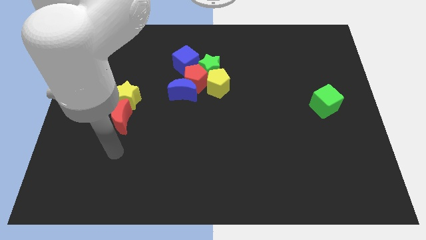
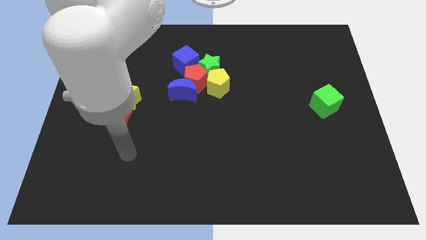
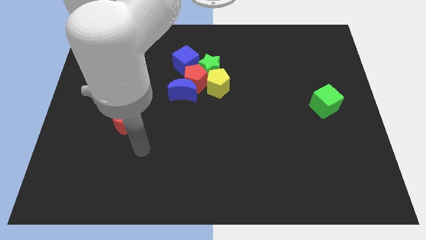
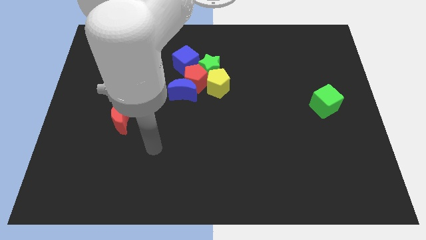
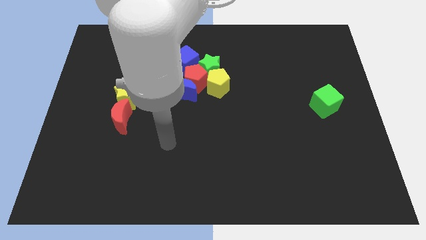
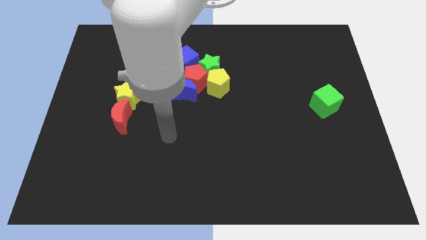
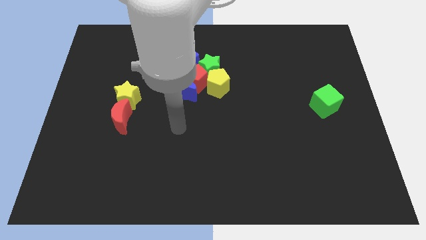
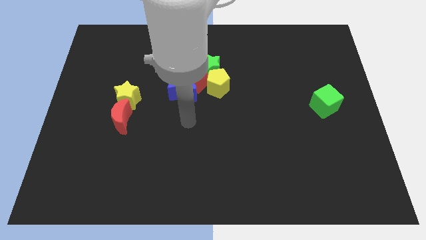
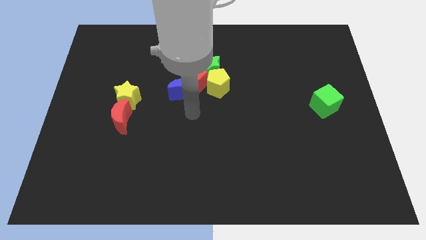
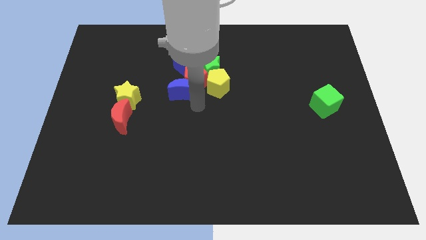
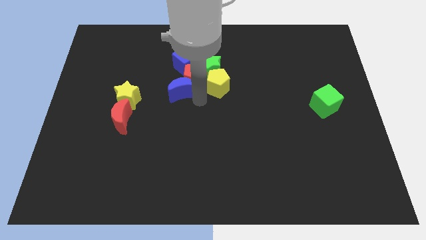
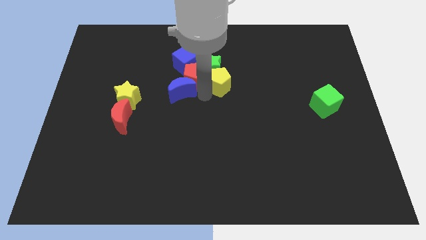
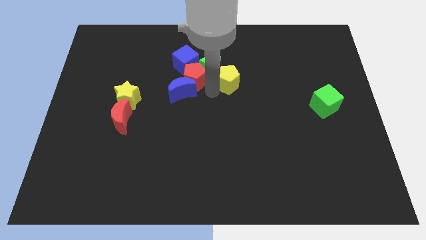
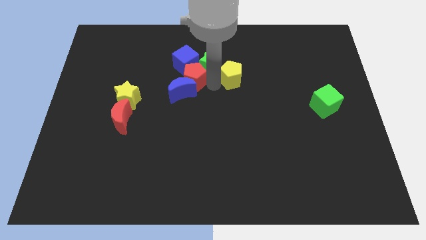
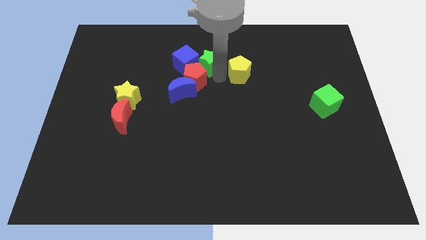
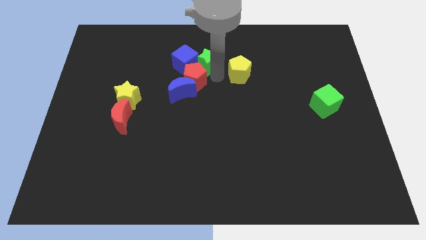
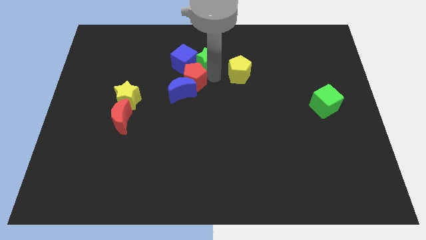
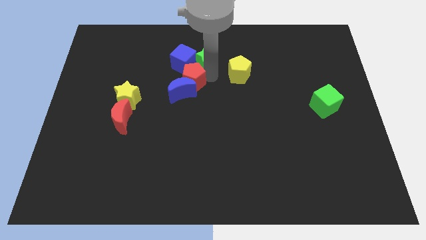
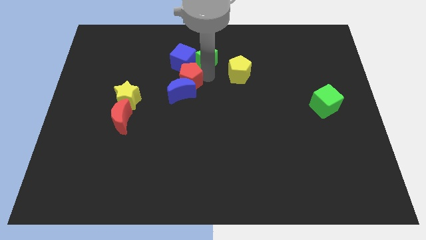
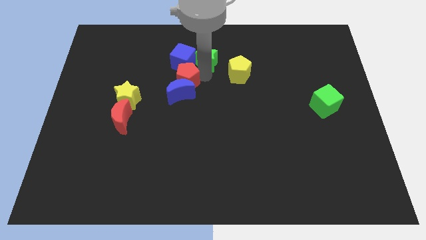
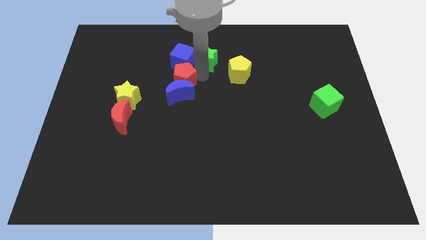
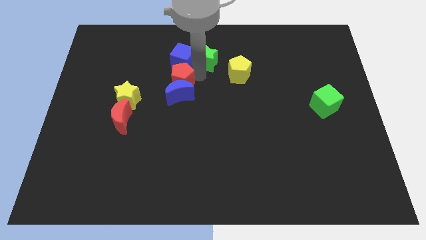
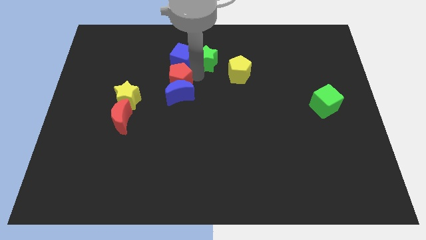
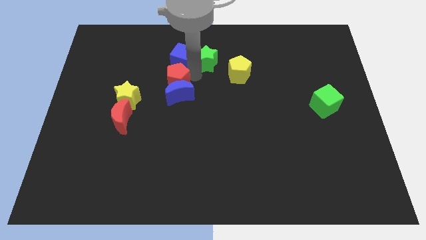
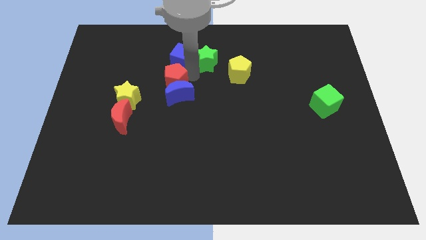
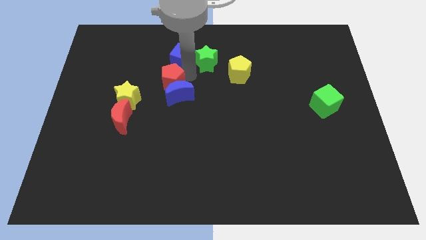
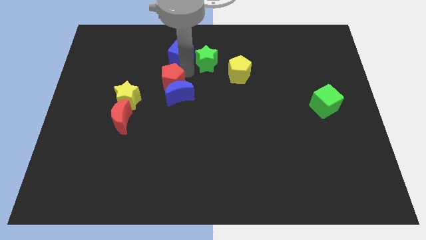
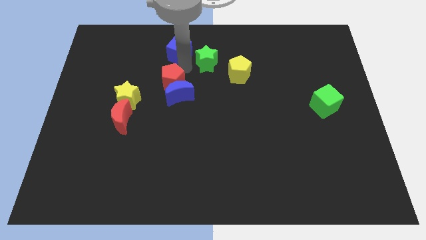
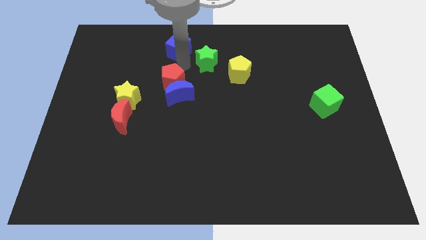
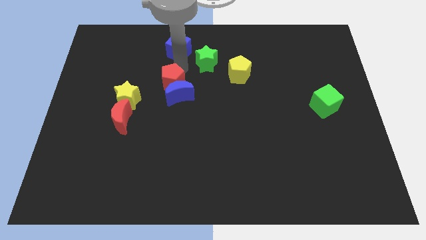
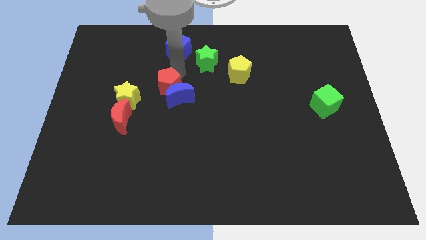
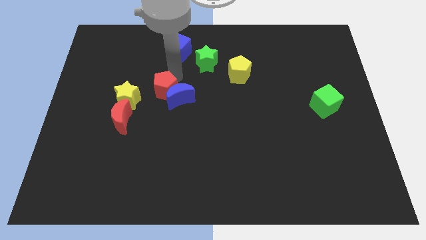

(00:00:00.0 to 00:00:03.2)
move the red pentagon away from the group of blocks

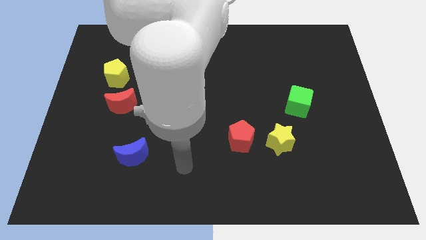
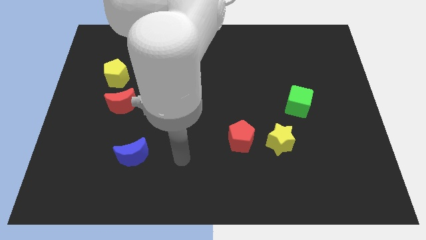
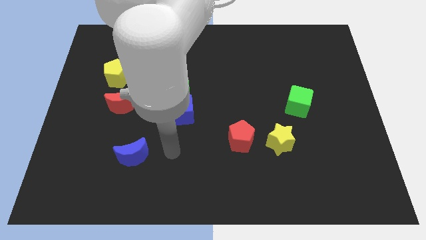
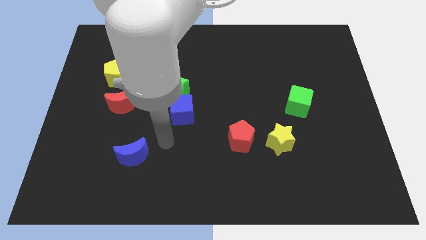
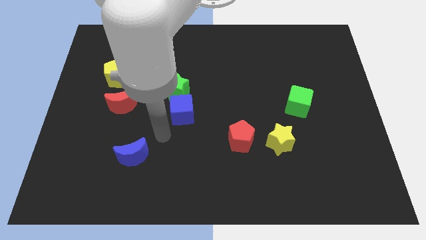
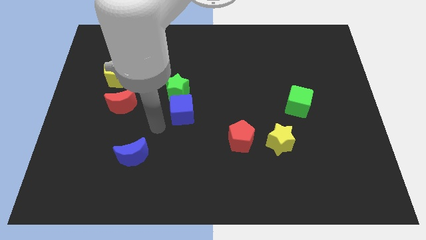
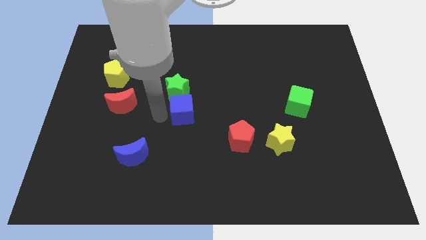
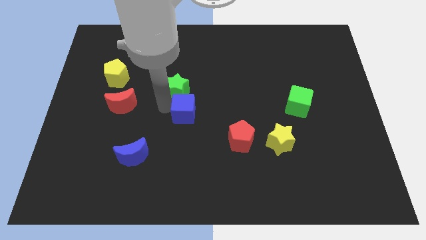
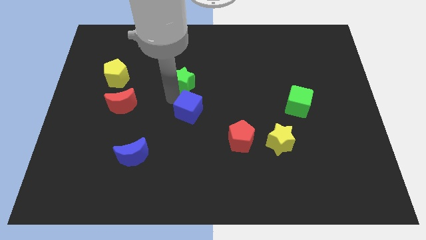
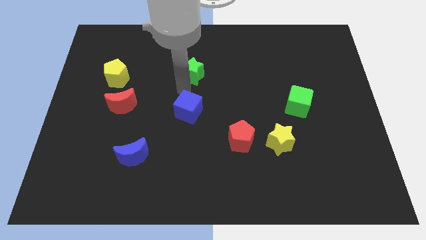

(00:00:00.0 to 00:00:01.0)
pull the blue cube apart from the green star

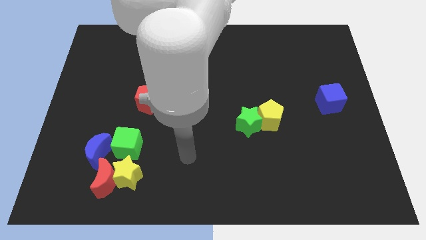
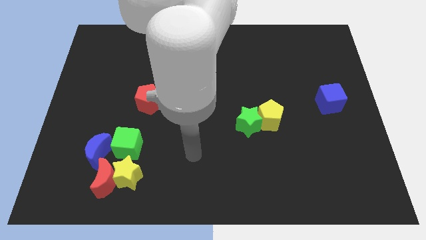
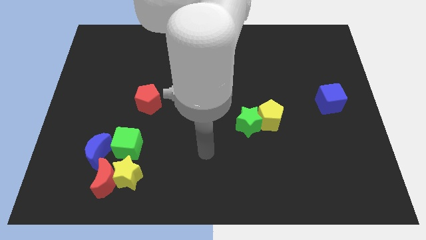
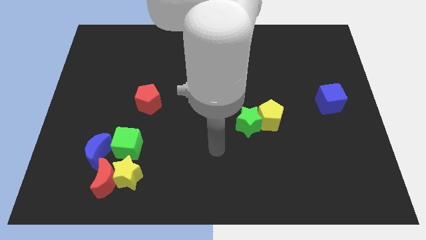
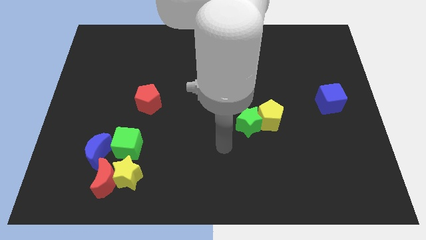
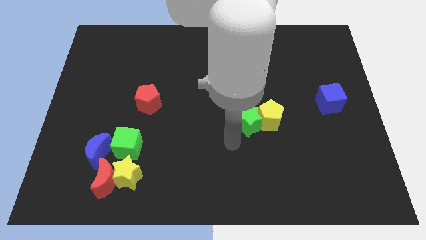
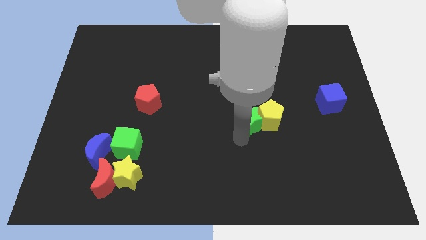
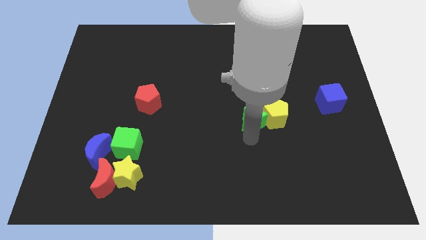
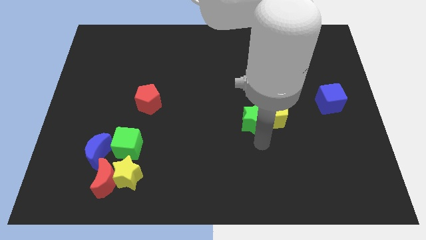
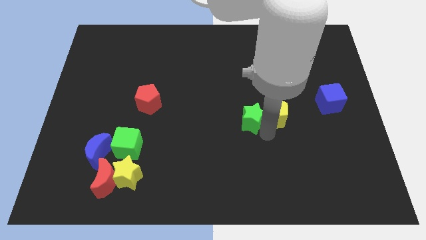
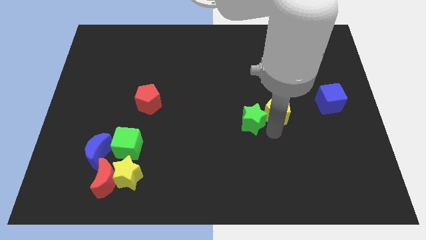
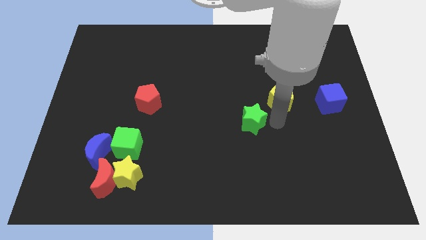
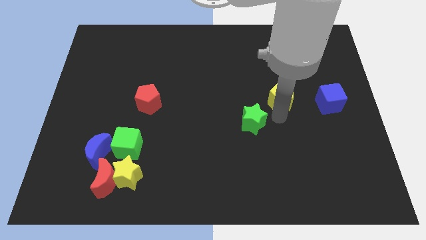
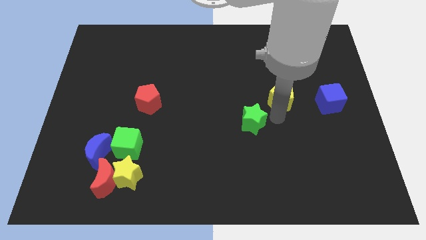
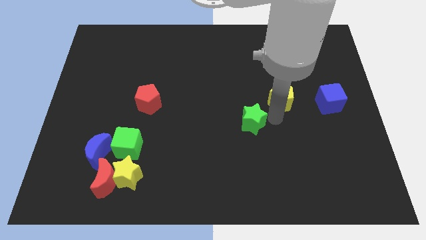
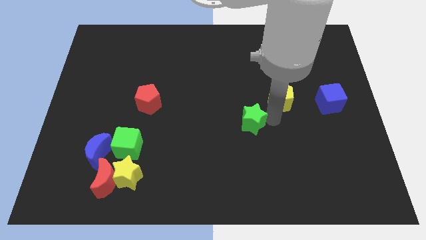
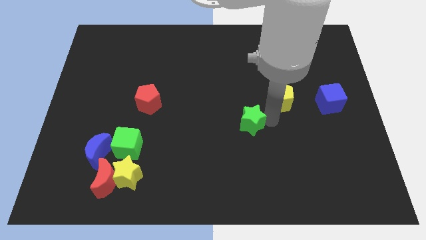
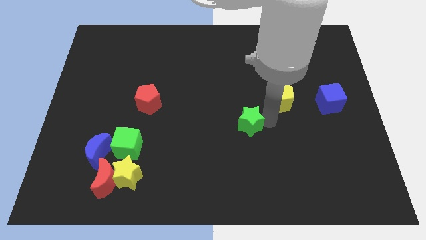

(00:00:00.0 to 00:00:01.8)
move the green star away from the yellow pentagon

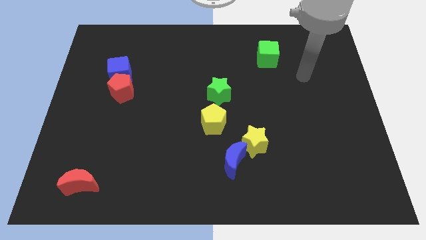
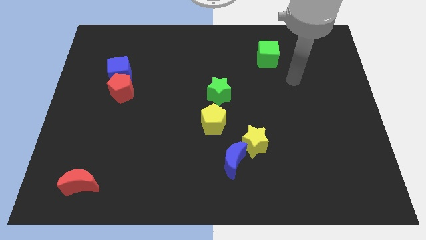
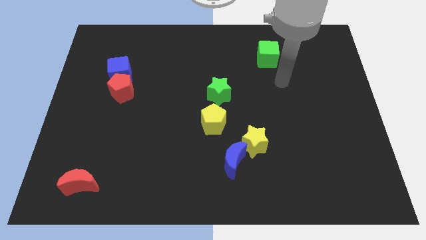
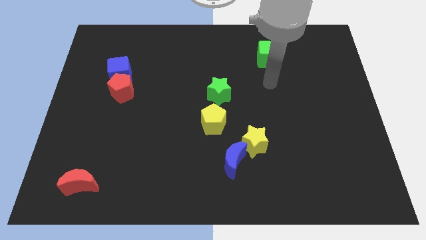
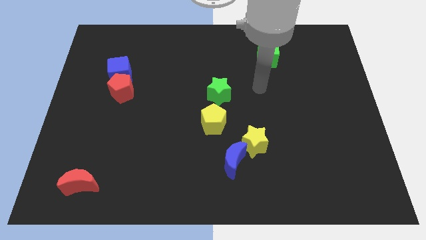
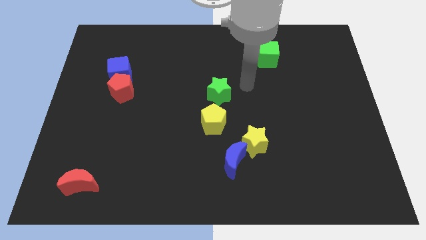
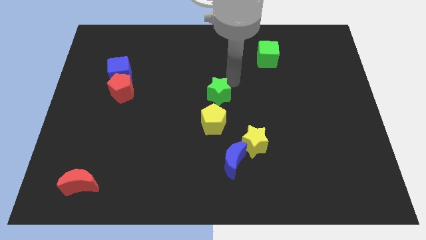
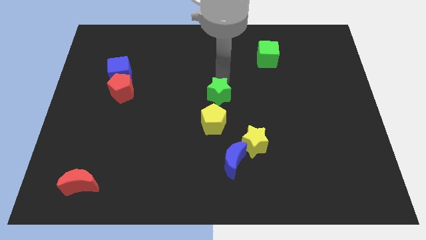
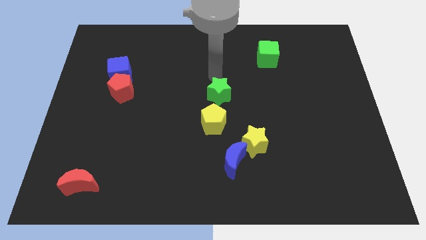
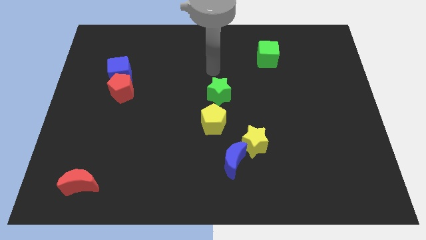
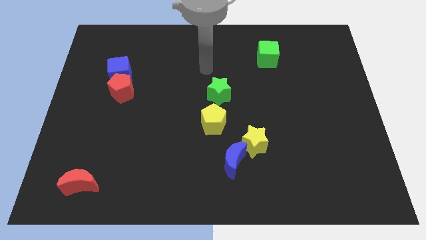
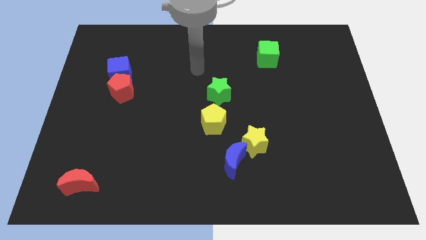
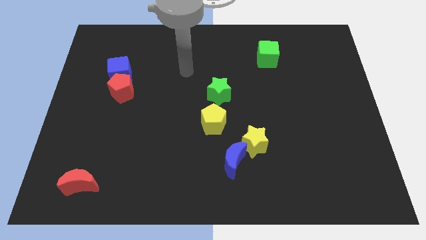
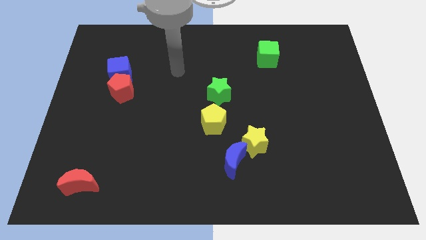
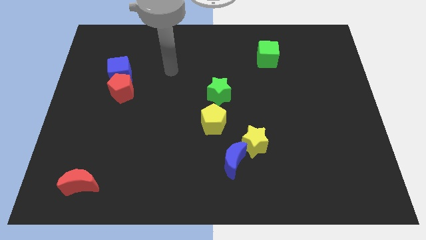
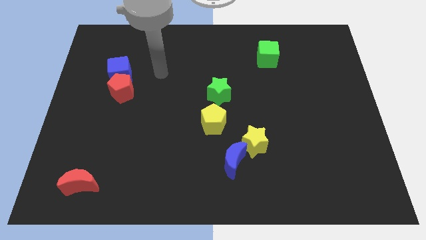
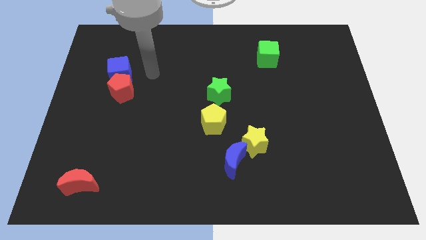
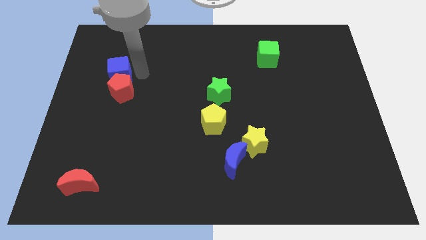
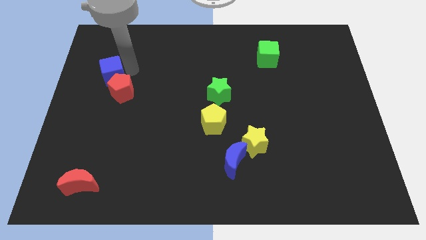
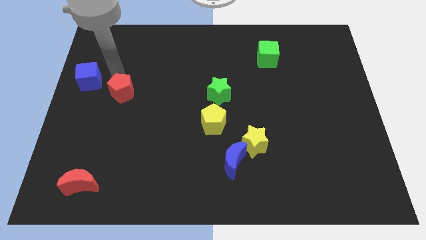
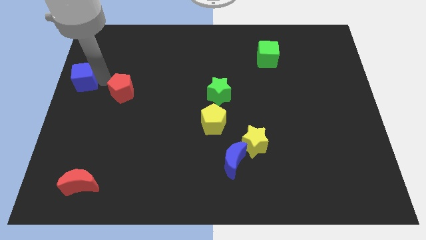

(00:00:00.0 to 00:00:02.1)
pull the red pentagon apart from the blue cube

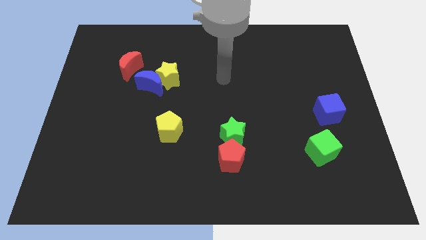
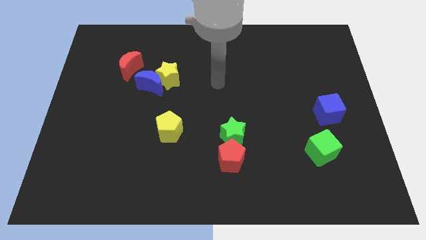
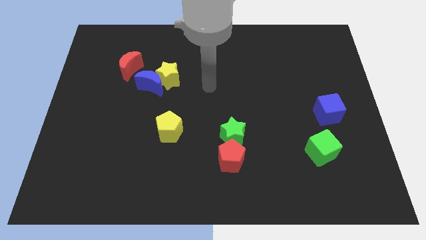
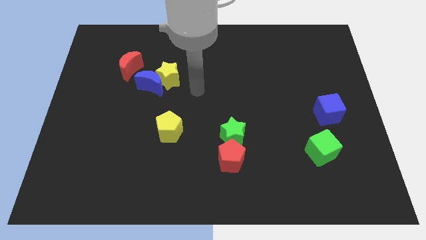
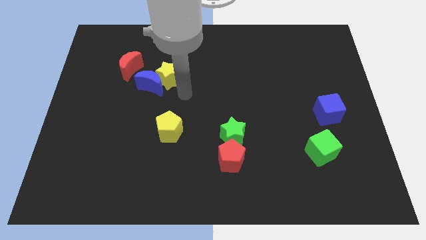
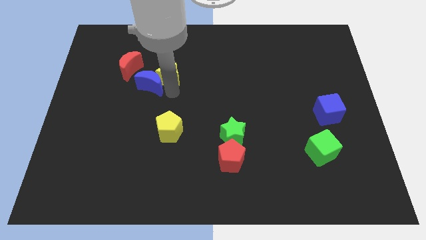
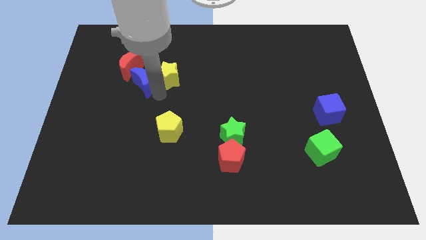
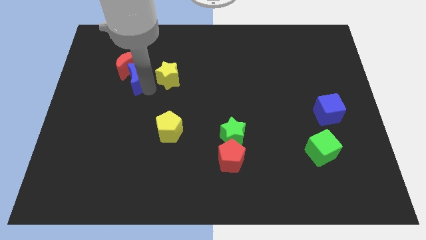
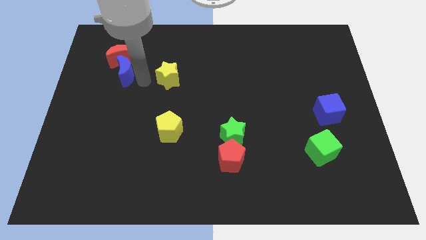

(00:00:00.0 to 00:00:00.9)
separate the yellow star from the blue moon

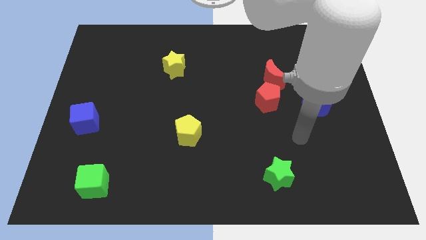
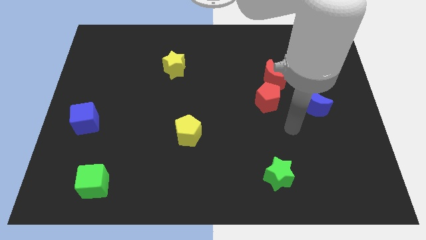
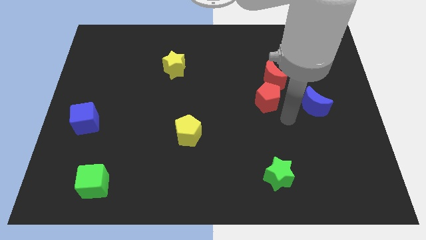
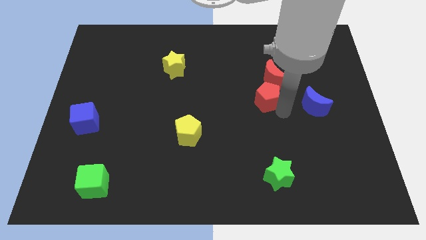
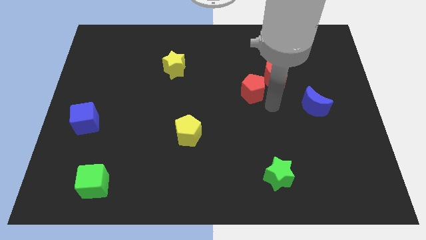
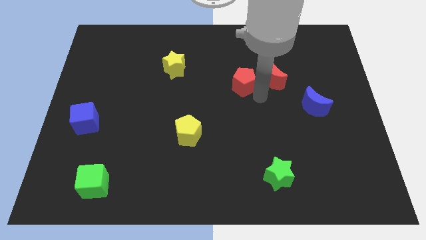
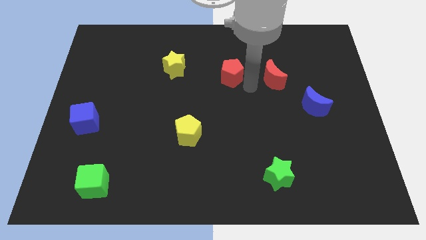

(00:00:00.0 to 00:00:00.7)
separate the red moon from the red pentagon
